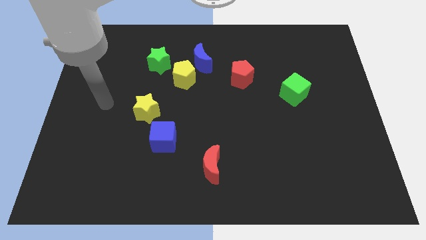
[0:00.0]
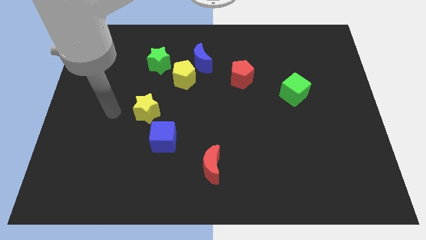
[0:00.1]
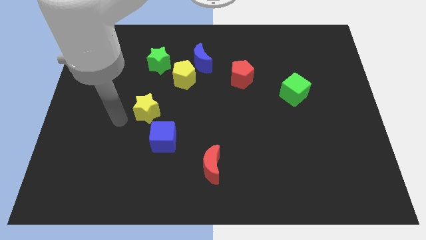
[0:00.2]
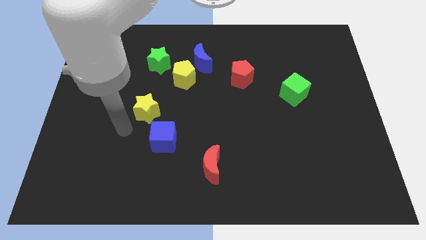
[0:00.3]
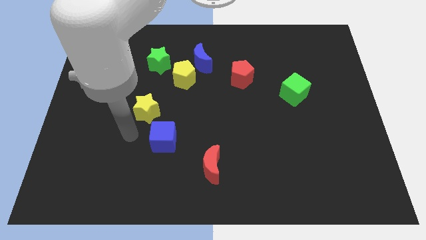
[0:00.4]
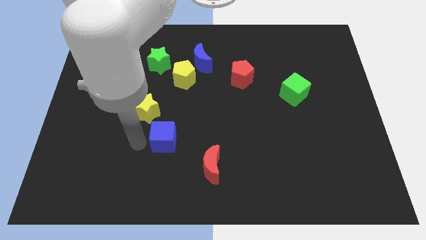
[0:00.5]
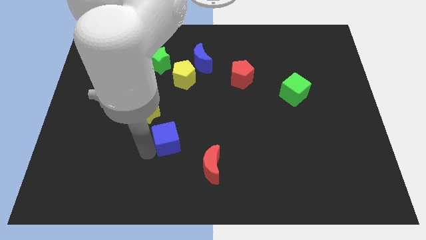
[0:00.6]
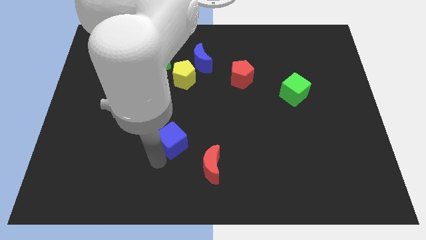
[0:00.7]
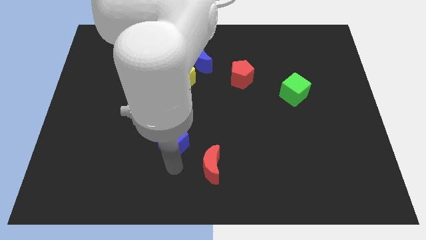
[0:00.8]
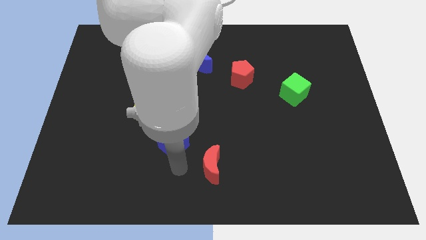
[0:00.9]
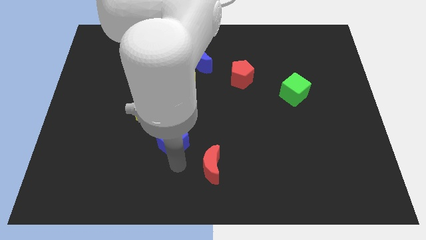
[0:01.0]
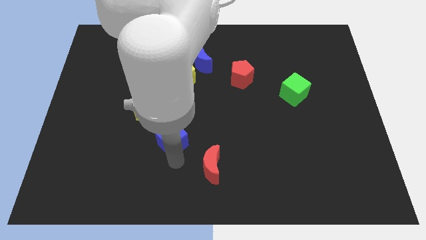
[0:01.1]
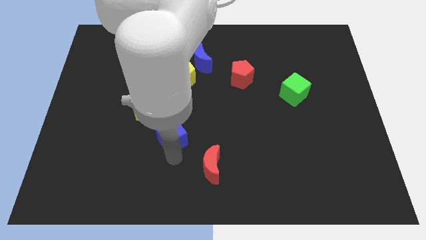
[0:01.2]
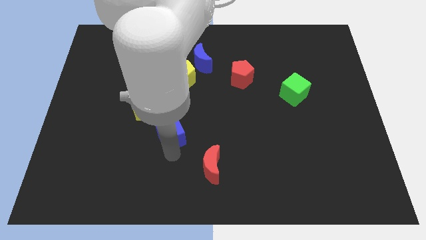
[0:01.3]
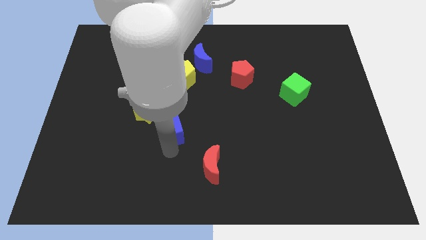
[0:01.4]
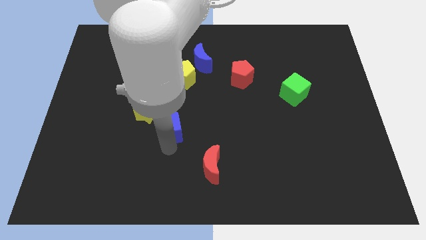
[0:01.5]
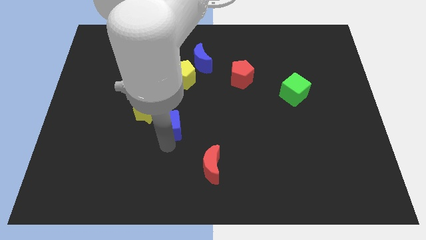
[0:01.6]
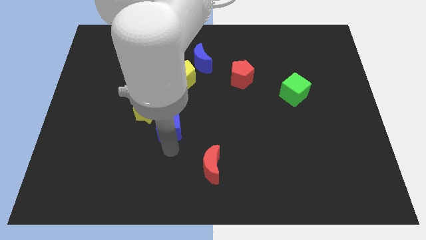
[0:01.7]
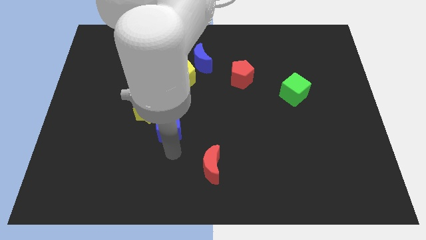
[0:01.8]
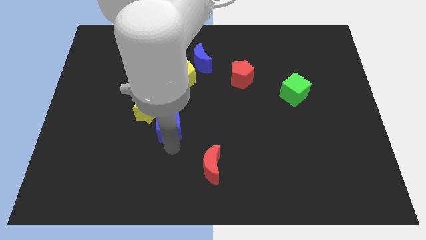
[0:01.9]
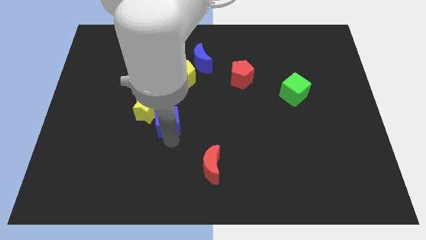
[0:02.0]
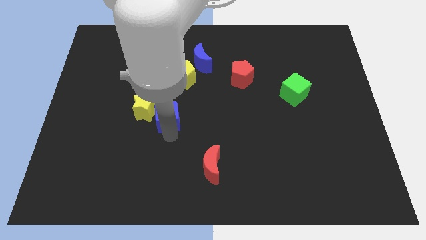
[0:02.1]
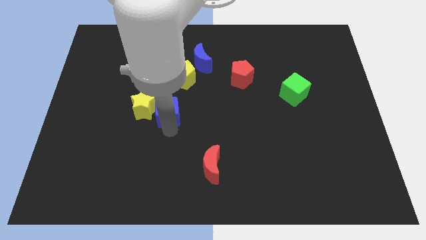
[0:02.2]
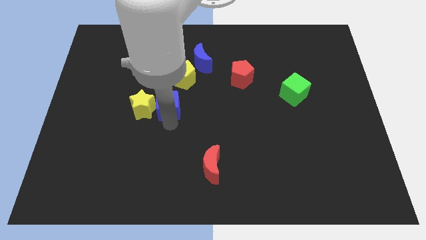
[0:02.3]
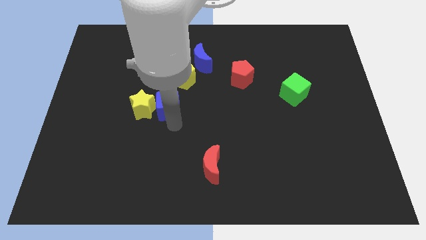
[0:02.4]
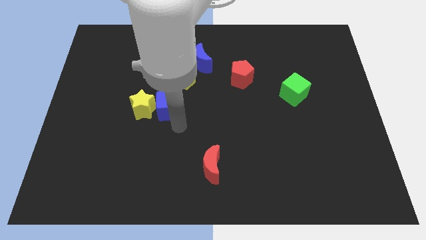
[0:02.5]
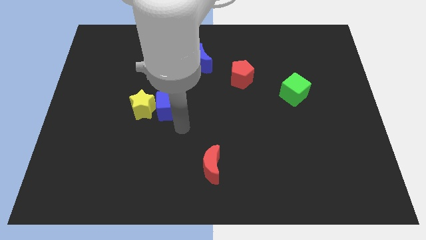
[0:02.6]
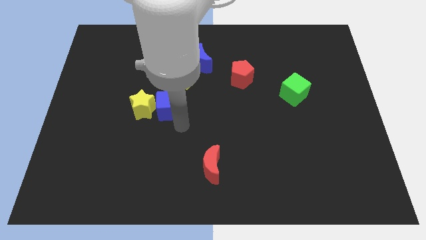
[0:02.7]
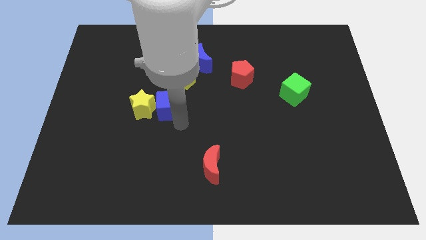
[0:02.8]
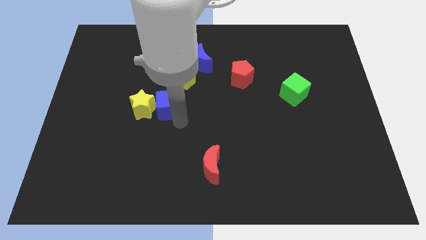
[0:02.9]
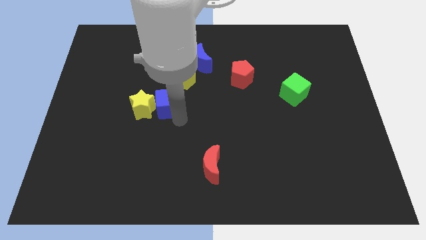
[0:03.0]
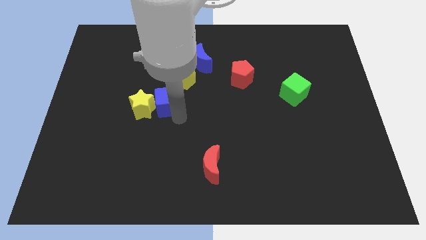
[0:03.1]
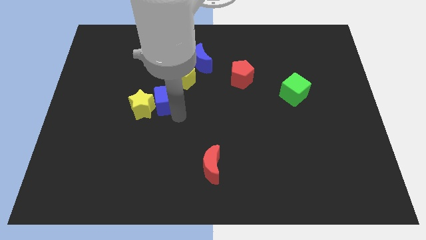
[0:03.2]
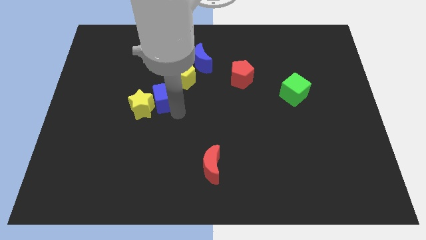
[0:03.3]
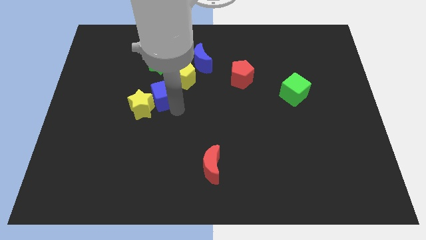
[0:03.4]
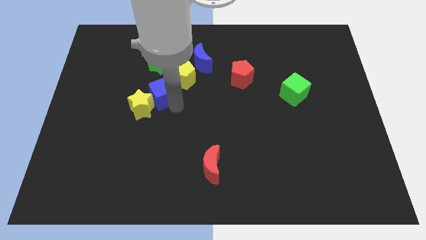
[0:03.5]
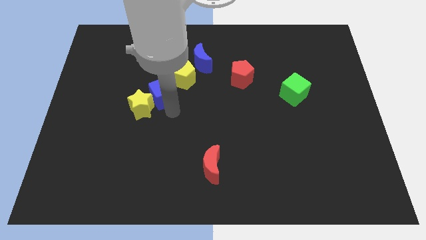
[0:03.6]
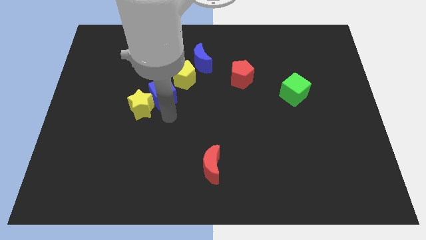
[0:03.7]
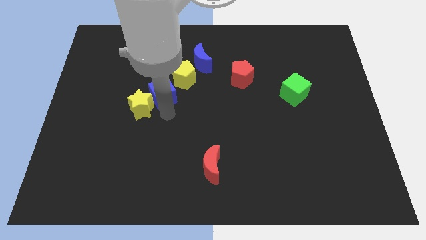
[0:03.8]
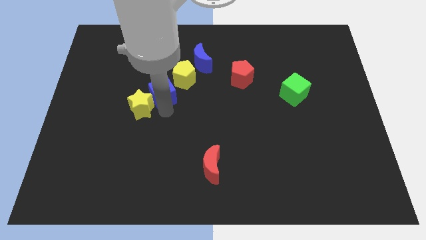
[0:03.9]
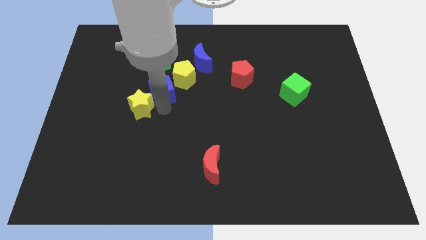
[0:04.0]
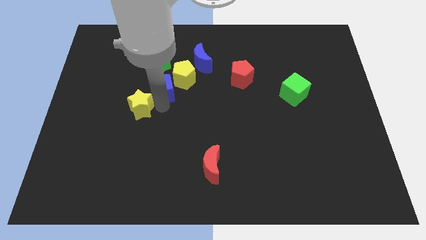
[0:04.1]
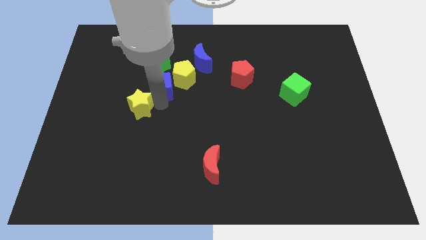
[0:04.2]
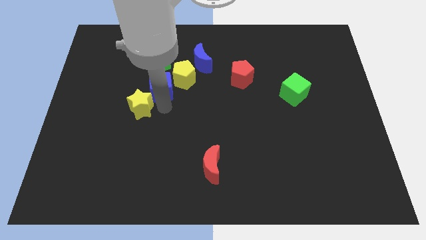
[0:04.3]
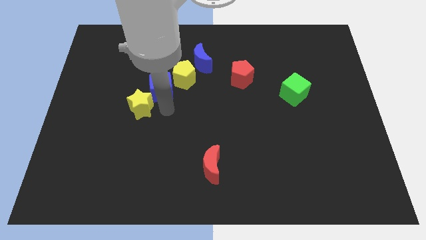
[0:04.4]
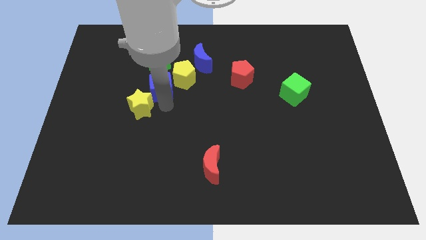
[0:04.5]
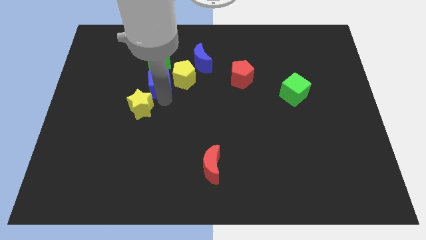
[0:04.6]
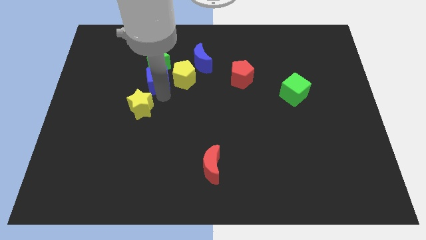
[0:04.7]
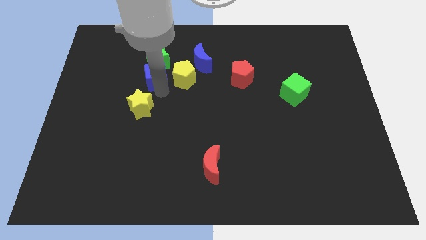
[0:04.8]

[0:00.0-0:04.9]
slide the blue cube close to the green star

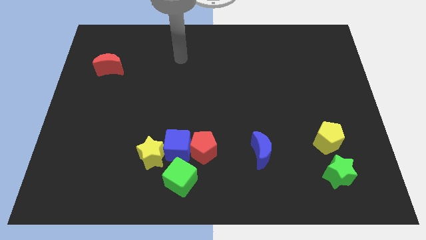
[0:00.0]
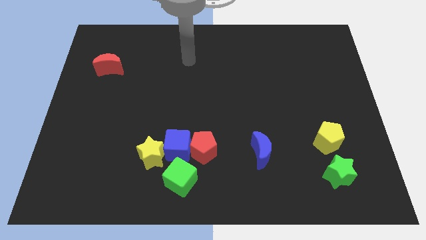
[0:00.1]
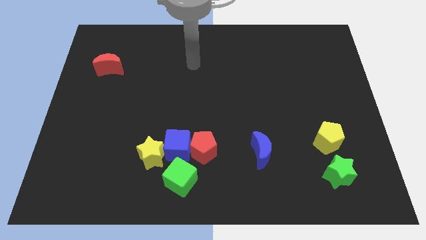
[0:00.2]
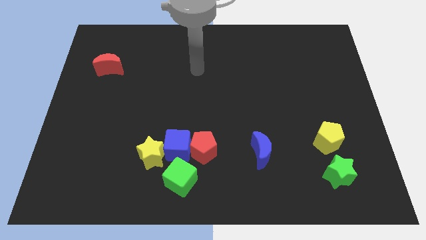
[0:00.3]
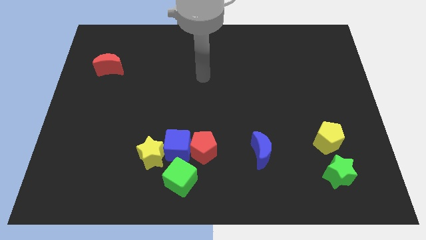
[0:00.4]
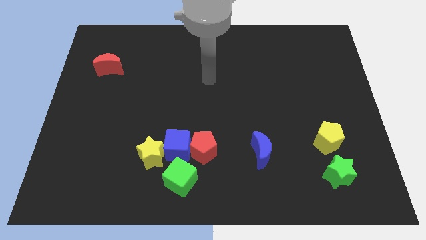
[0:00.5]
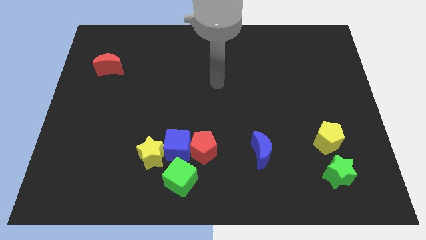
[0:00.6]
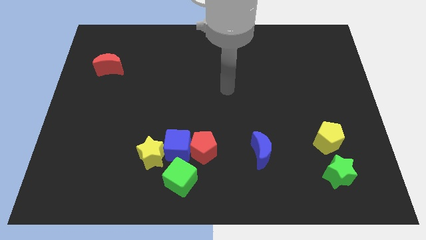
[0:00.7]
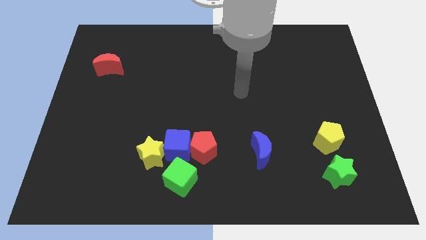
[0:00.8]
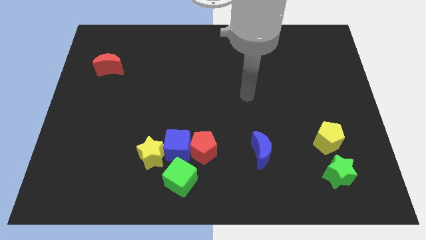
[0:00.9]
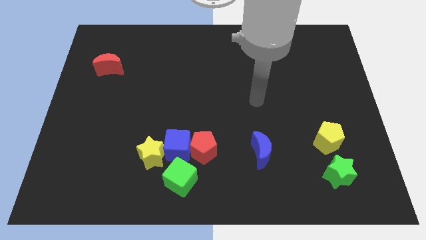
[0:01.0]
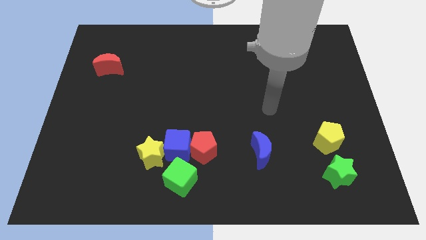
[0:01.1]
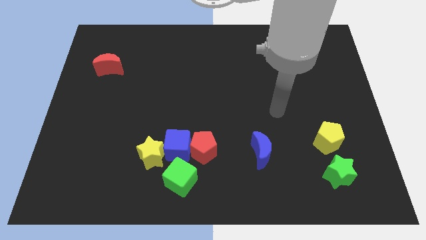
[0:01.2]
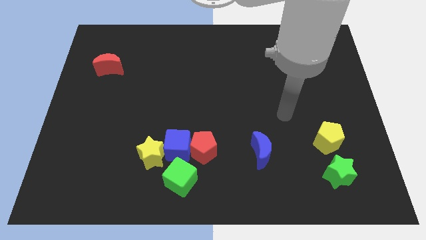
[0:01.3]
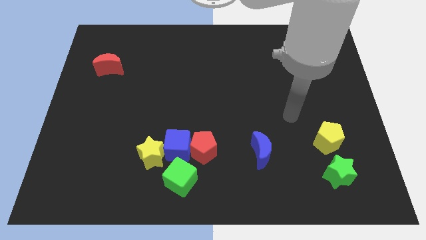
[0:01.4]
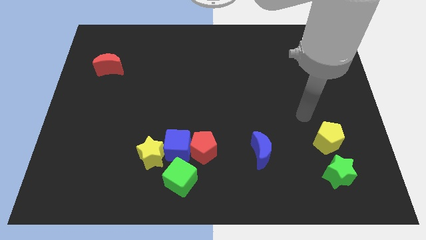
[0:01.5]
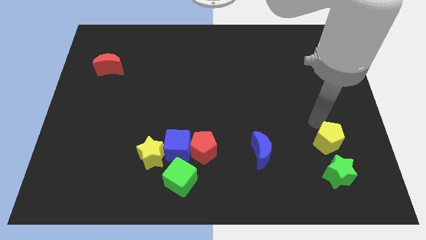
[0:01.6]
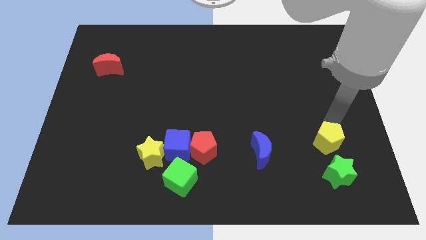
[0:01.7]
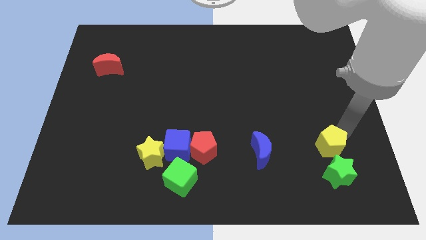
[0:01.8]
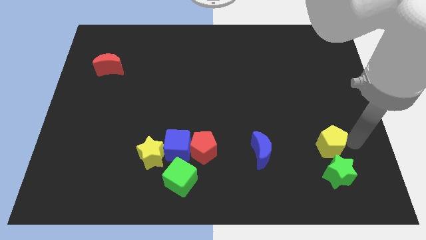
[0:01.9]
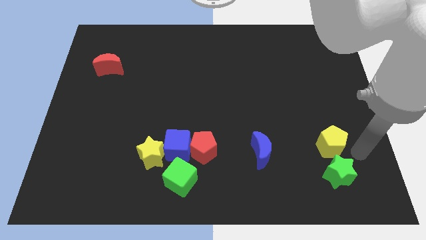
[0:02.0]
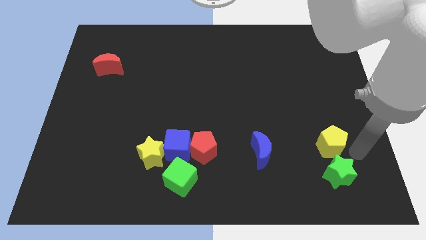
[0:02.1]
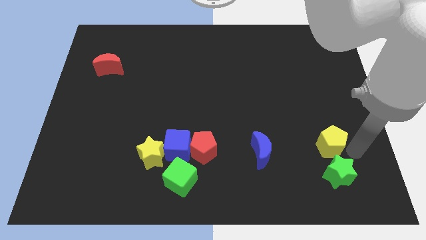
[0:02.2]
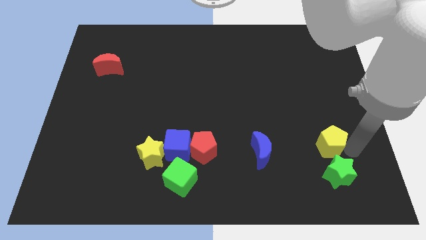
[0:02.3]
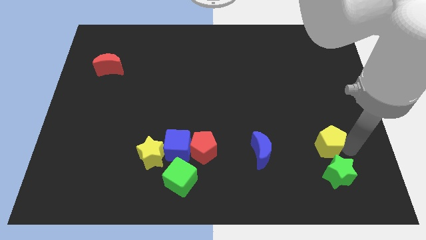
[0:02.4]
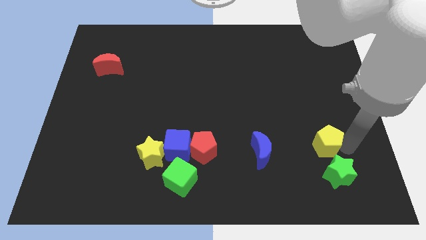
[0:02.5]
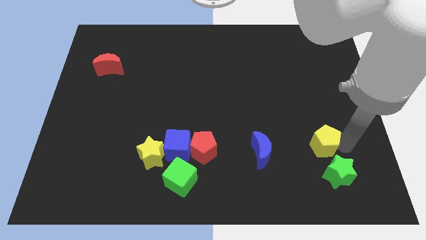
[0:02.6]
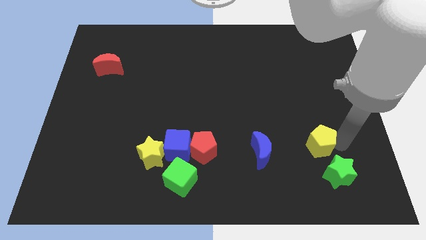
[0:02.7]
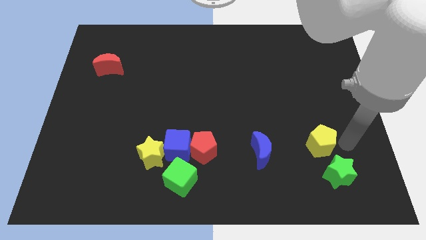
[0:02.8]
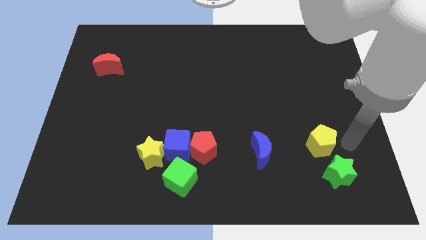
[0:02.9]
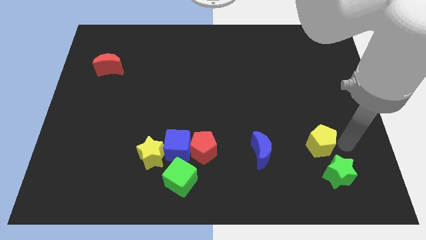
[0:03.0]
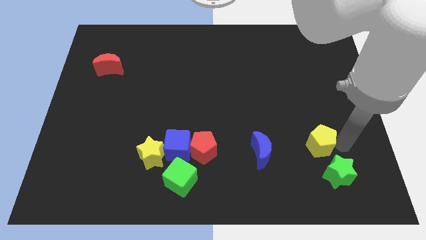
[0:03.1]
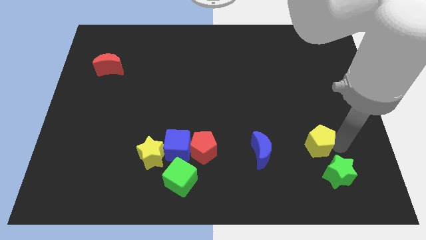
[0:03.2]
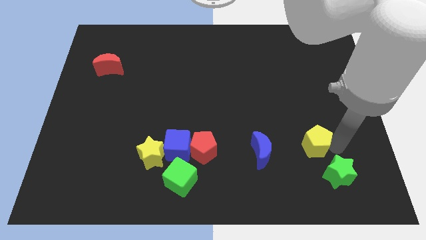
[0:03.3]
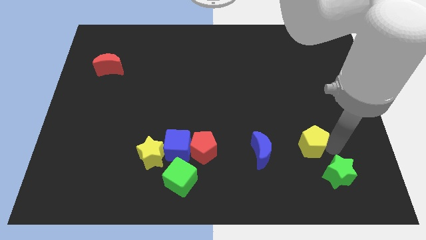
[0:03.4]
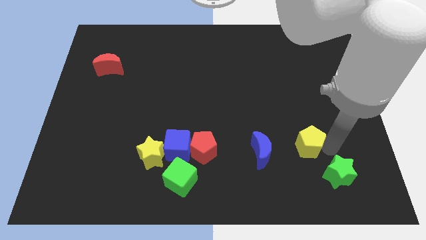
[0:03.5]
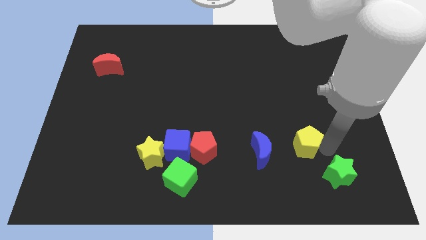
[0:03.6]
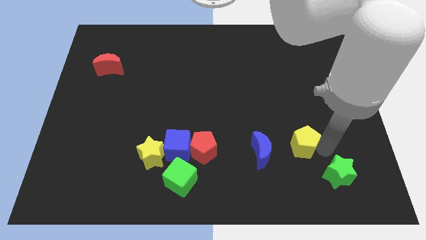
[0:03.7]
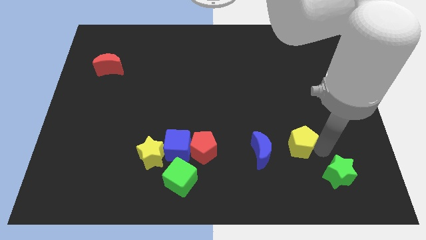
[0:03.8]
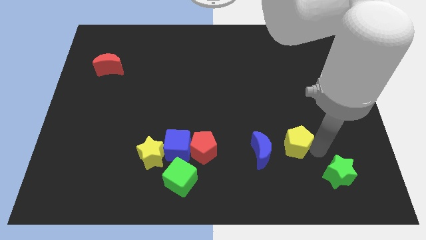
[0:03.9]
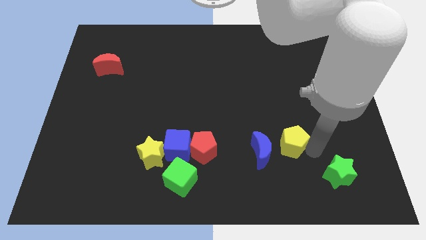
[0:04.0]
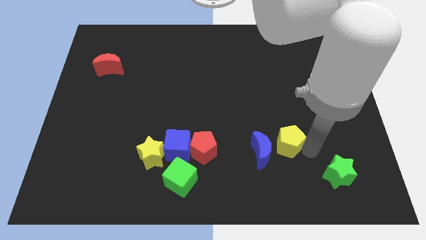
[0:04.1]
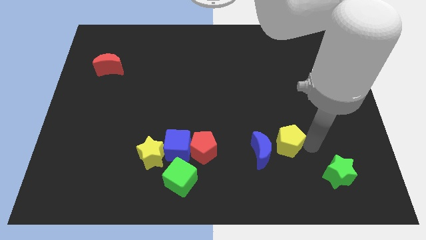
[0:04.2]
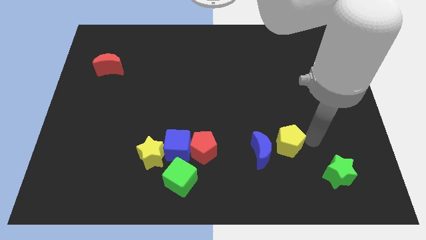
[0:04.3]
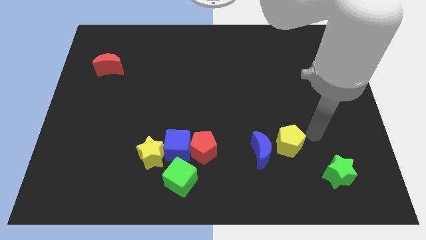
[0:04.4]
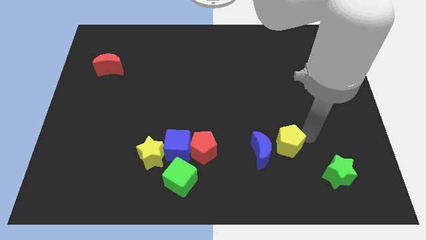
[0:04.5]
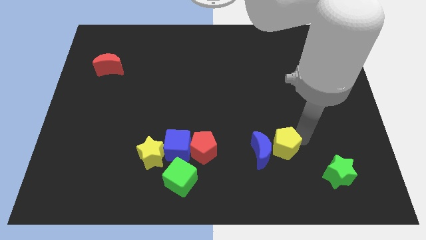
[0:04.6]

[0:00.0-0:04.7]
push the yellow pentagon next to the blue moon
